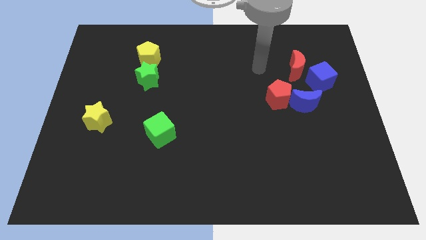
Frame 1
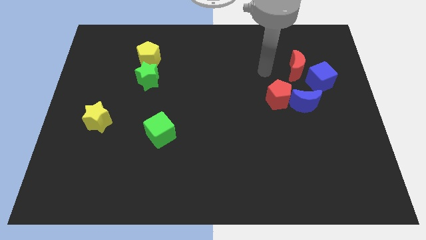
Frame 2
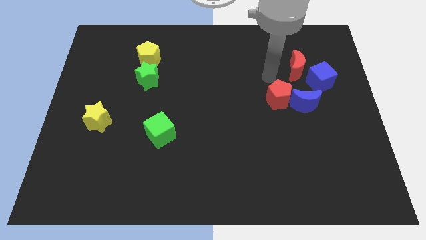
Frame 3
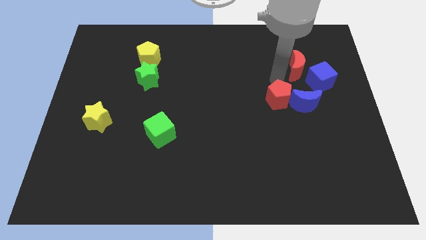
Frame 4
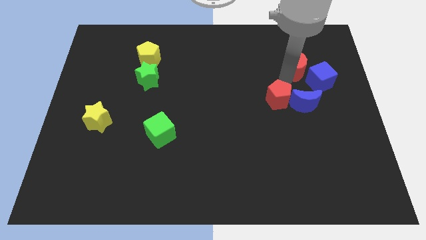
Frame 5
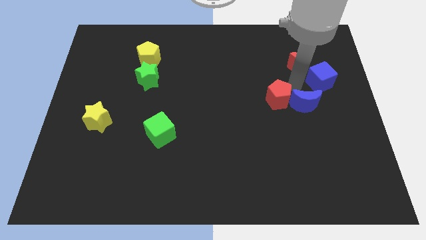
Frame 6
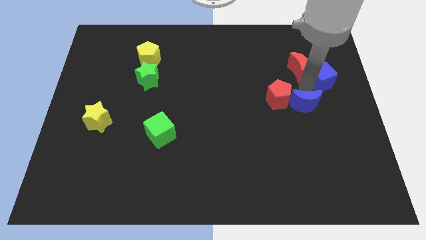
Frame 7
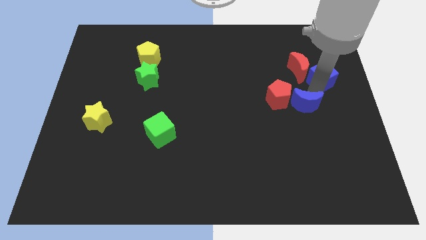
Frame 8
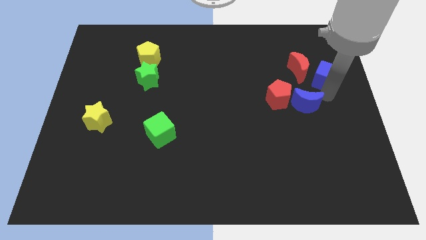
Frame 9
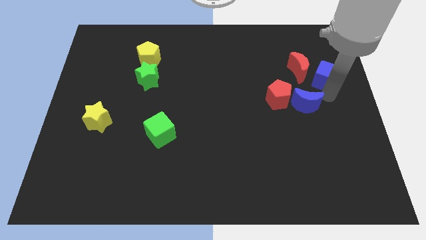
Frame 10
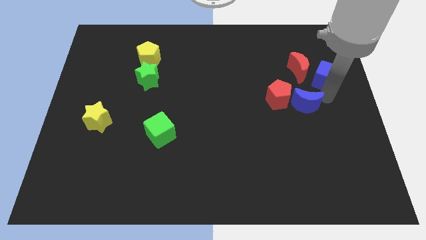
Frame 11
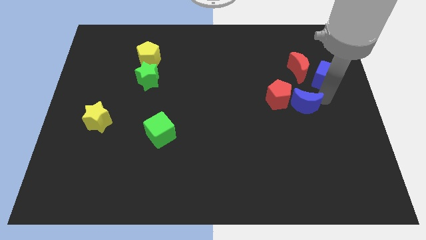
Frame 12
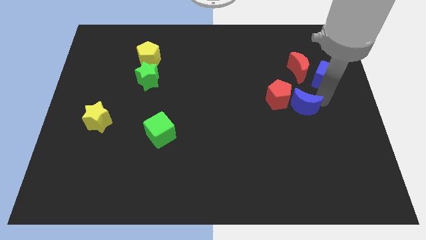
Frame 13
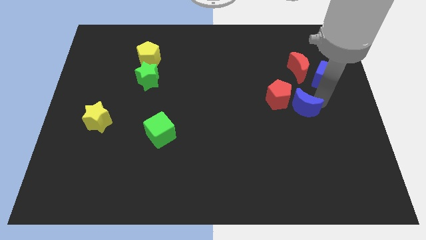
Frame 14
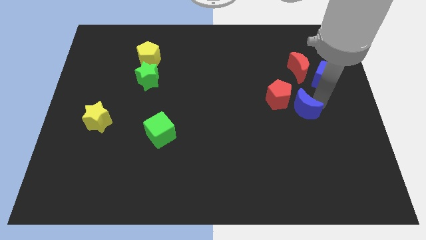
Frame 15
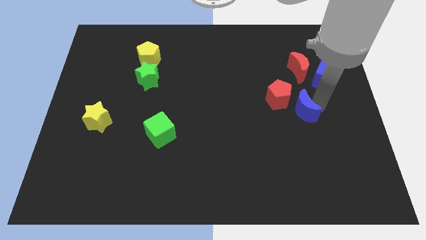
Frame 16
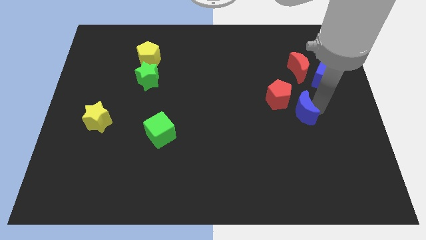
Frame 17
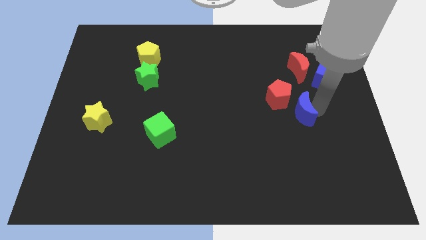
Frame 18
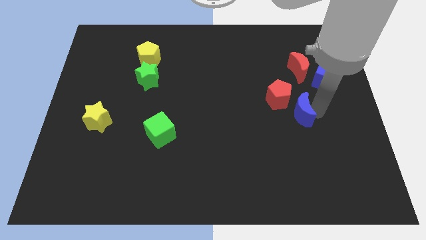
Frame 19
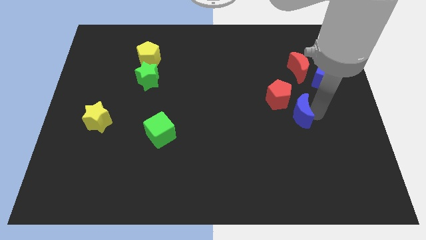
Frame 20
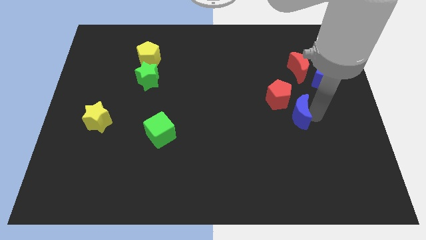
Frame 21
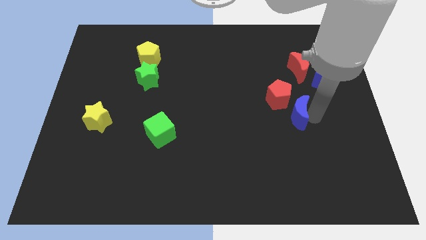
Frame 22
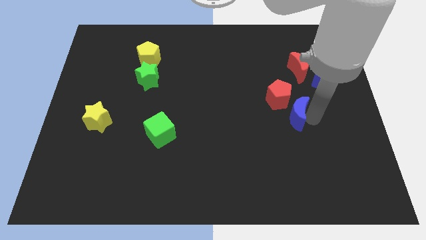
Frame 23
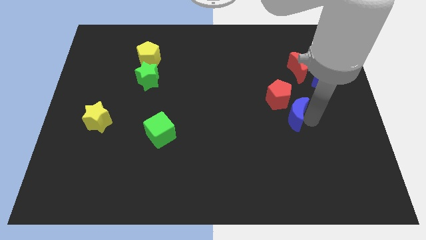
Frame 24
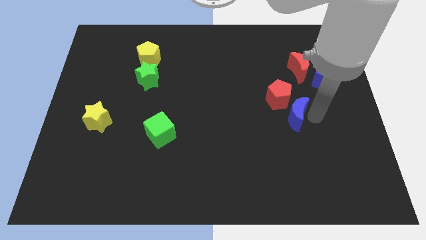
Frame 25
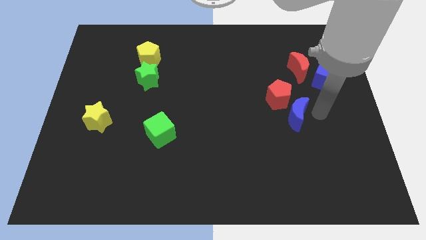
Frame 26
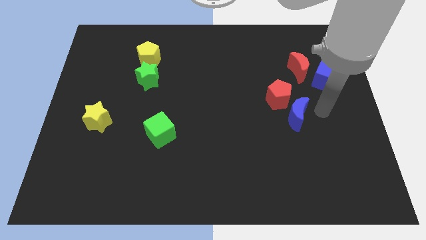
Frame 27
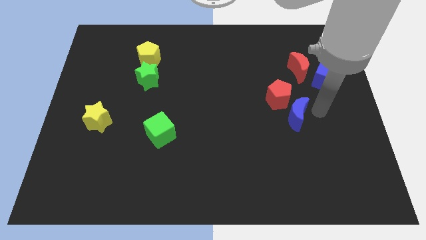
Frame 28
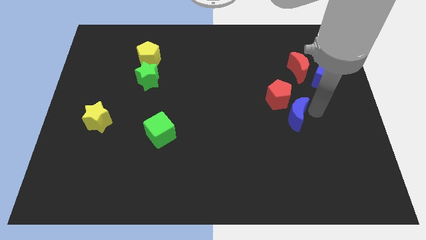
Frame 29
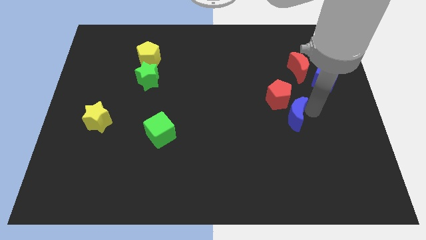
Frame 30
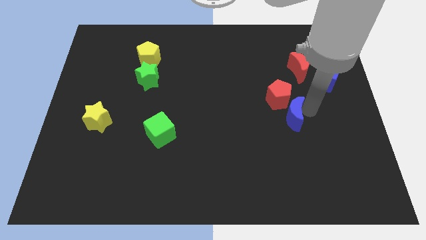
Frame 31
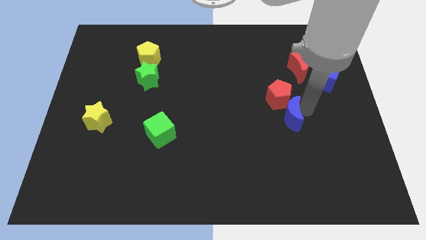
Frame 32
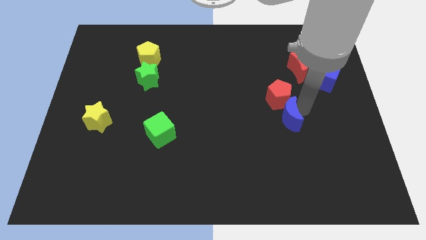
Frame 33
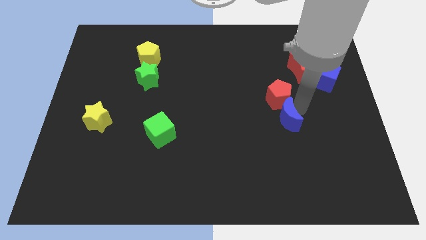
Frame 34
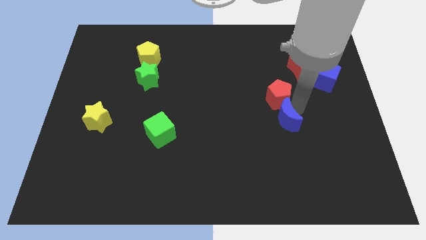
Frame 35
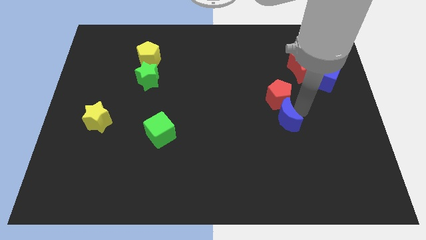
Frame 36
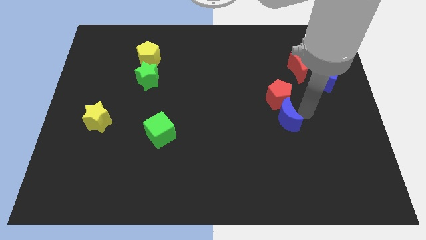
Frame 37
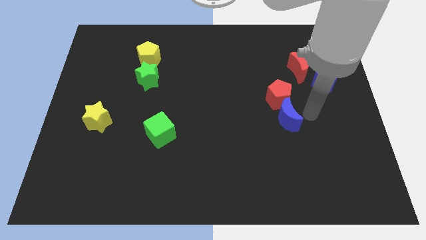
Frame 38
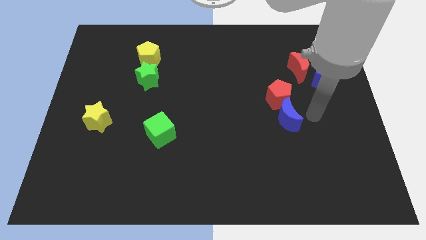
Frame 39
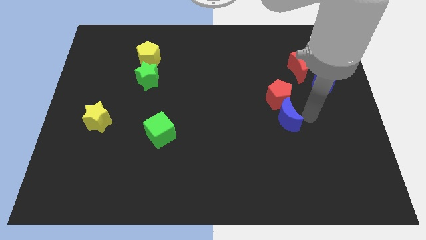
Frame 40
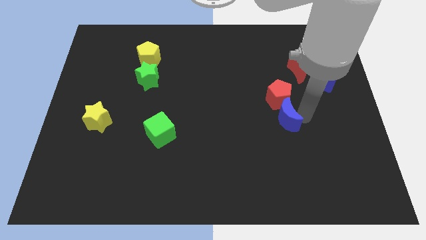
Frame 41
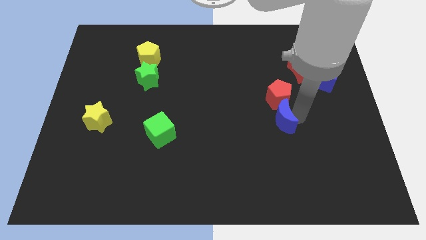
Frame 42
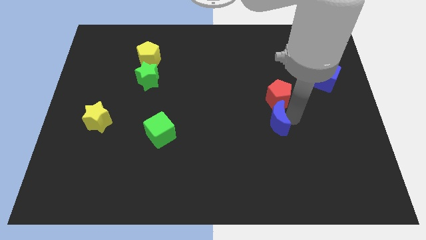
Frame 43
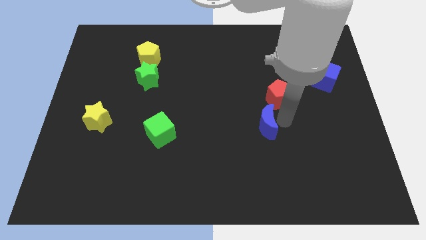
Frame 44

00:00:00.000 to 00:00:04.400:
slide the blue moon to the left a bit

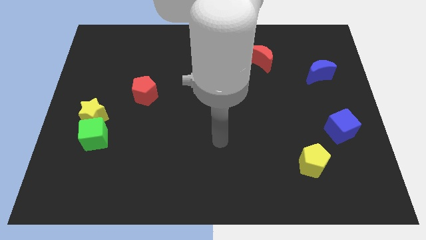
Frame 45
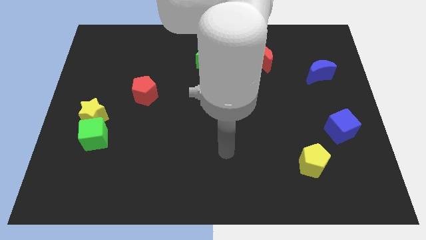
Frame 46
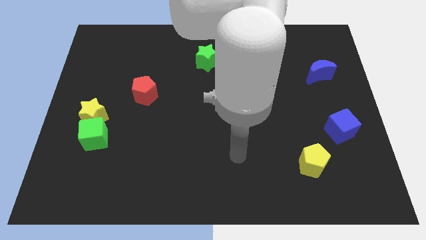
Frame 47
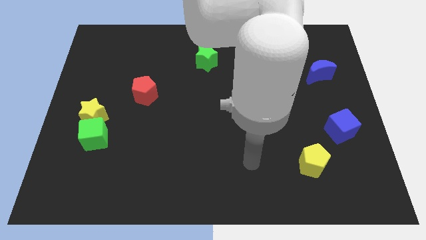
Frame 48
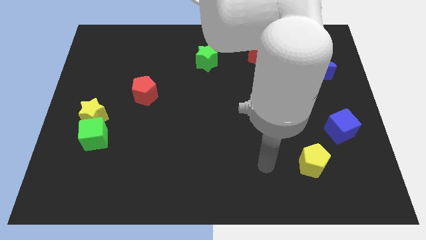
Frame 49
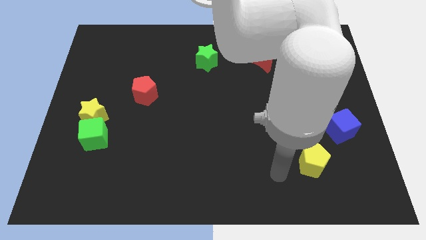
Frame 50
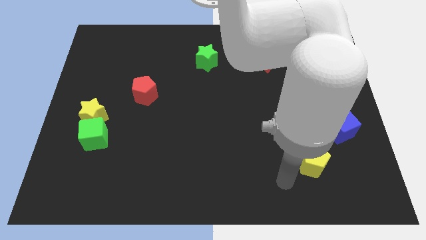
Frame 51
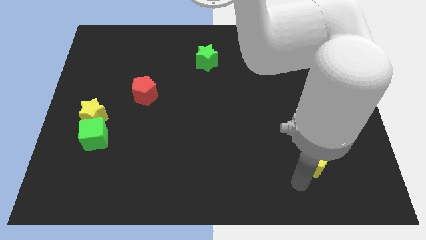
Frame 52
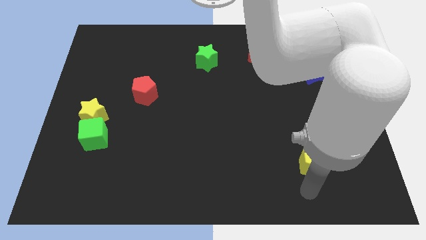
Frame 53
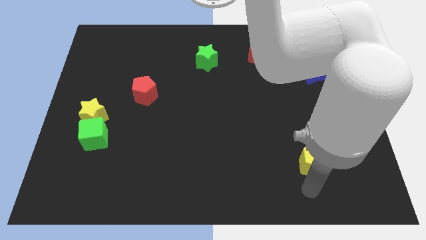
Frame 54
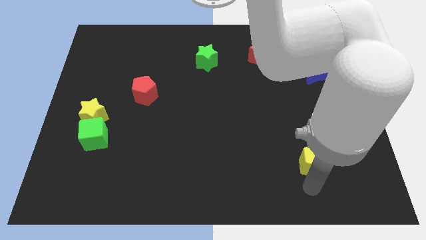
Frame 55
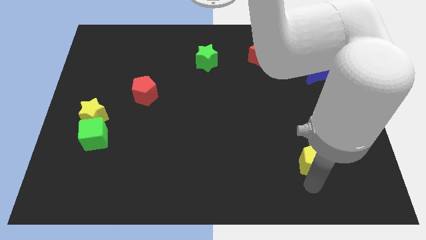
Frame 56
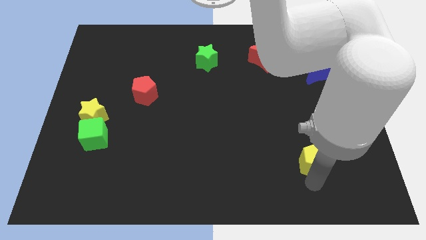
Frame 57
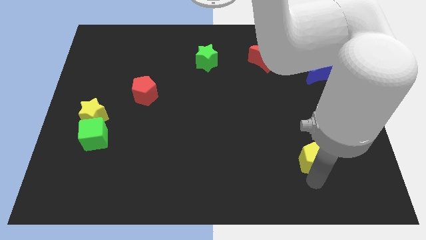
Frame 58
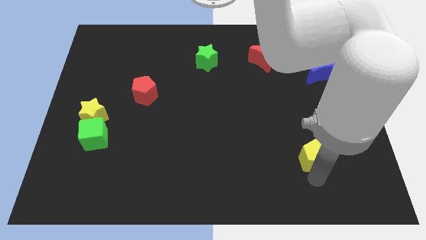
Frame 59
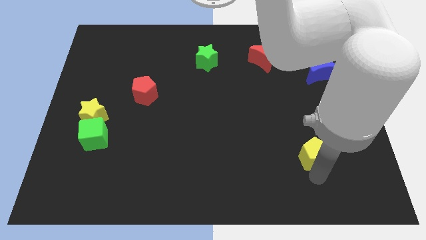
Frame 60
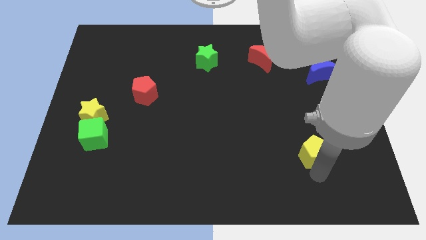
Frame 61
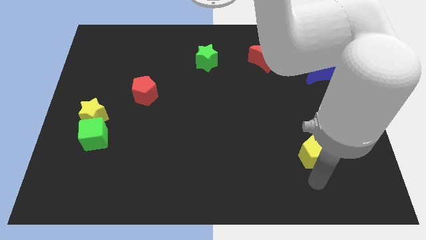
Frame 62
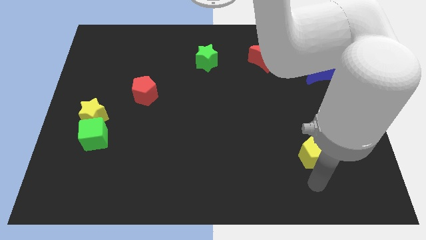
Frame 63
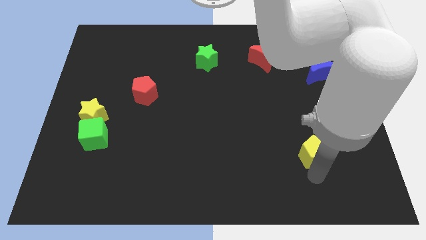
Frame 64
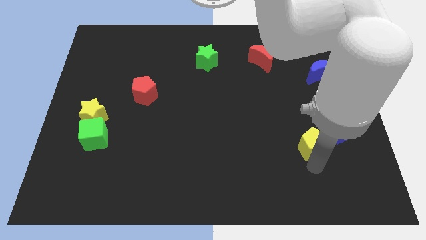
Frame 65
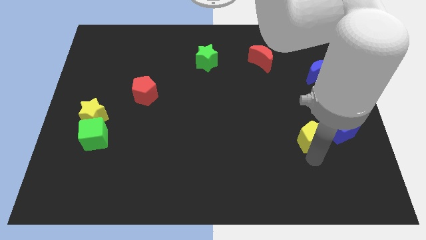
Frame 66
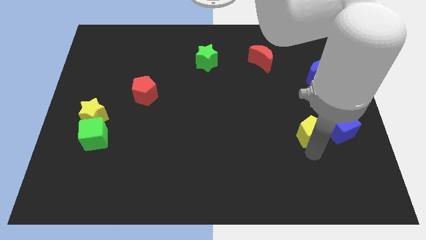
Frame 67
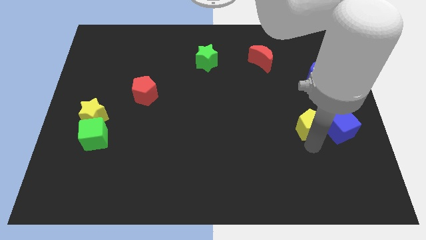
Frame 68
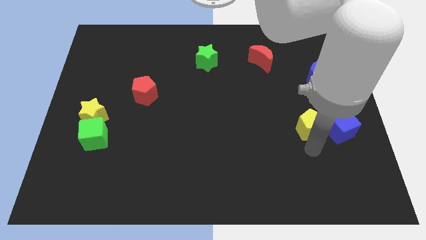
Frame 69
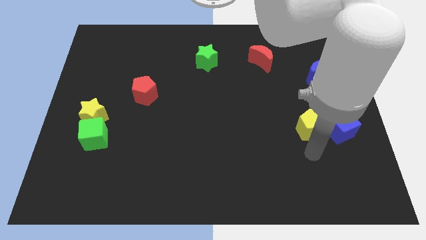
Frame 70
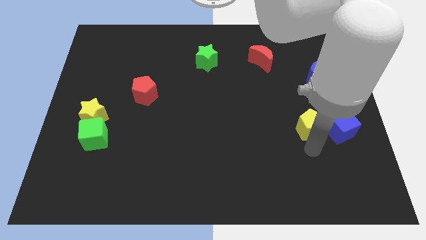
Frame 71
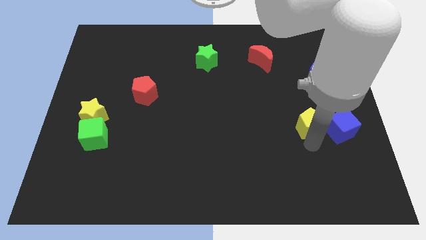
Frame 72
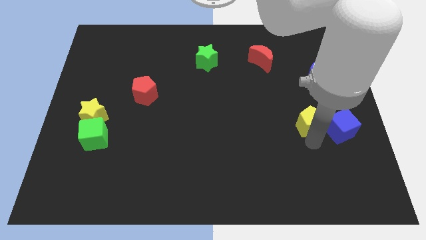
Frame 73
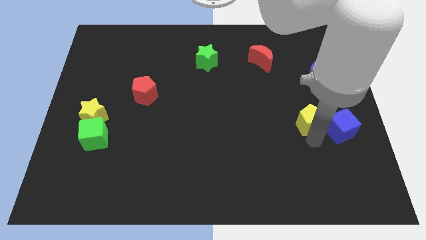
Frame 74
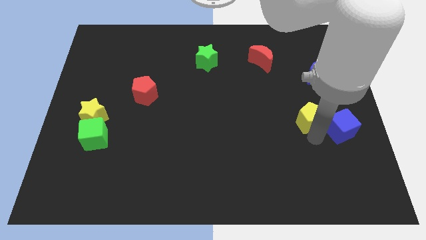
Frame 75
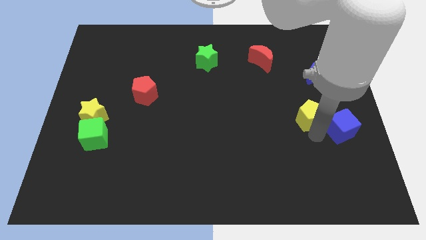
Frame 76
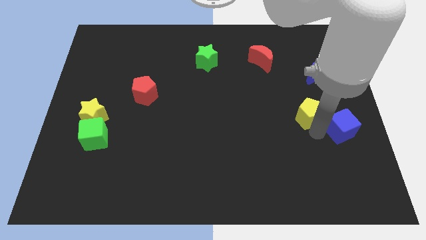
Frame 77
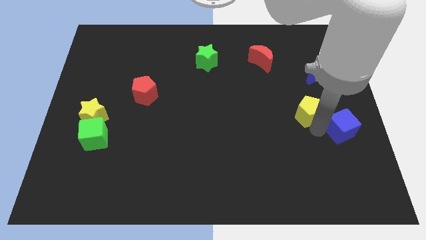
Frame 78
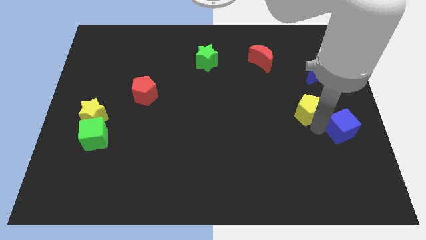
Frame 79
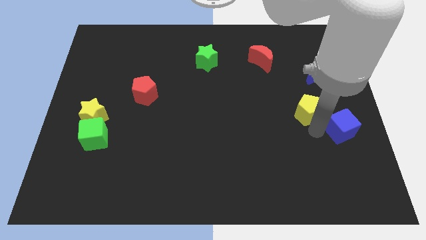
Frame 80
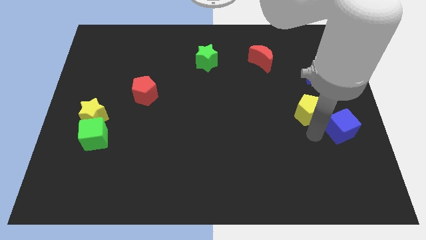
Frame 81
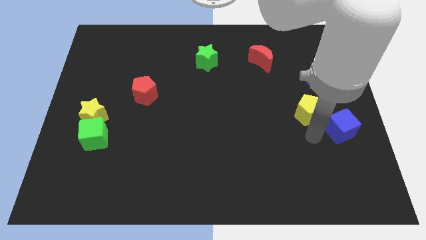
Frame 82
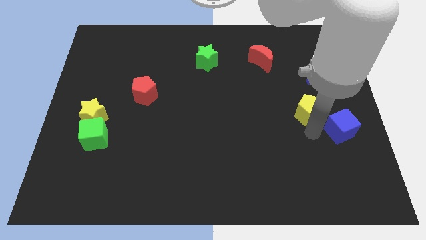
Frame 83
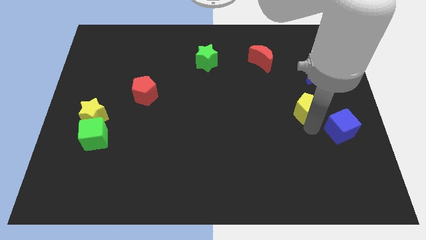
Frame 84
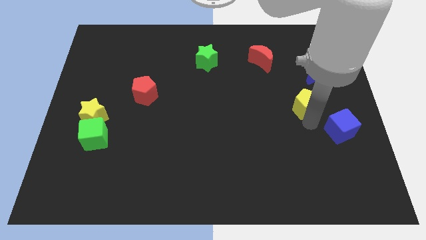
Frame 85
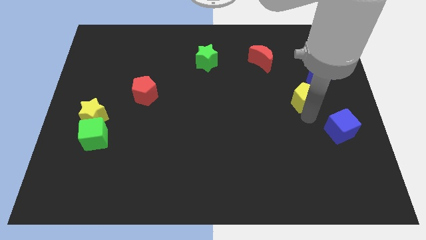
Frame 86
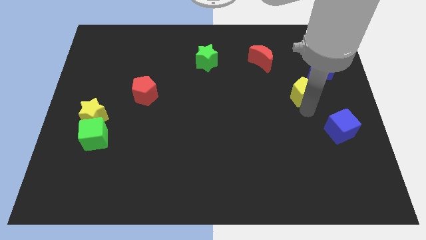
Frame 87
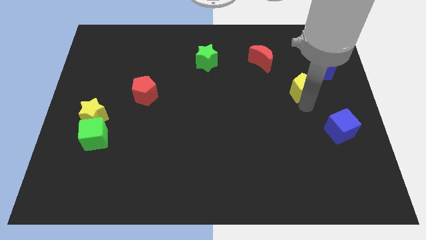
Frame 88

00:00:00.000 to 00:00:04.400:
slide the yellow pentagon up
